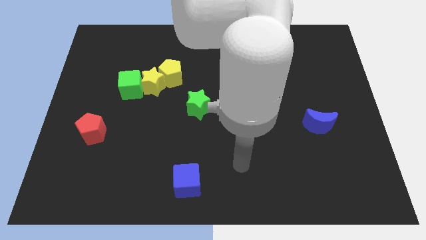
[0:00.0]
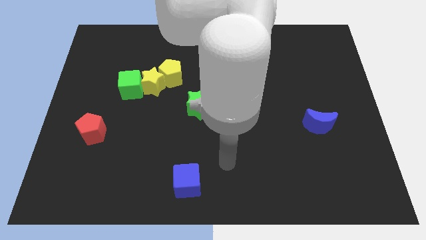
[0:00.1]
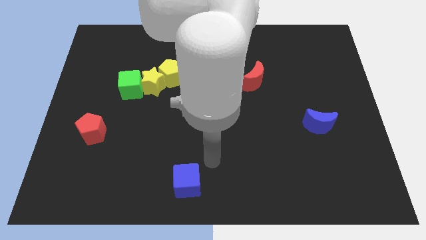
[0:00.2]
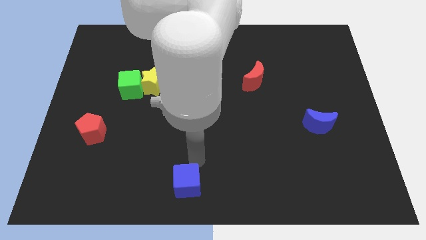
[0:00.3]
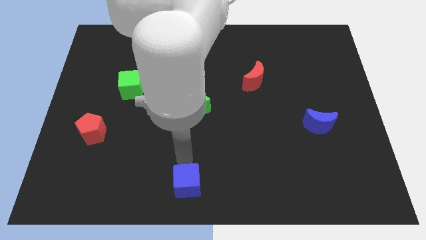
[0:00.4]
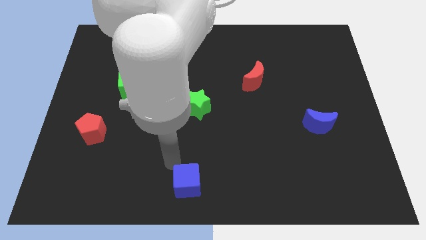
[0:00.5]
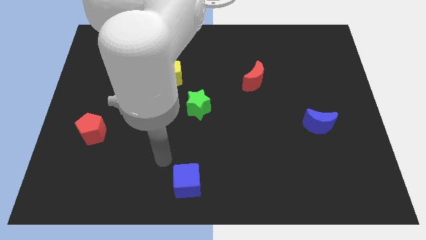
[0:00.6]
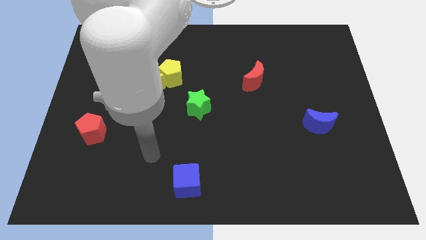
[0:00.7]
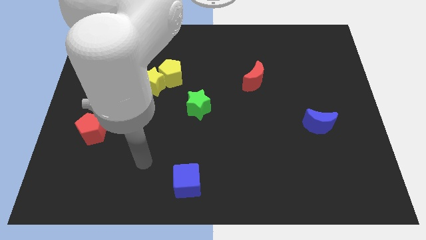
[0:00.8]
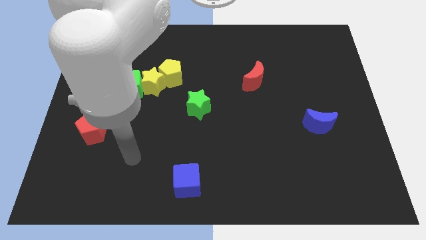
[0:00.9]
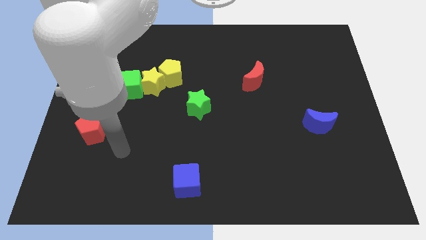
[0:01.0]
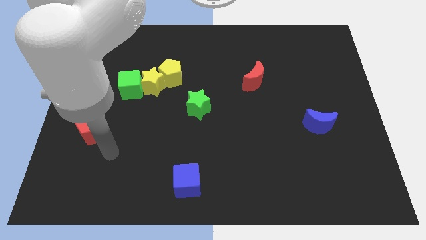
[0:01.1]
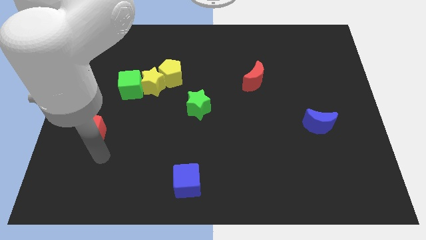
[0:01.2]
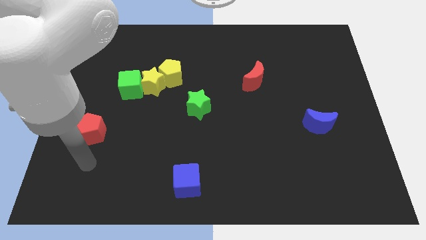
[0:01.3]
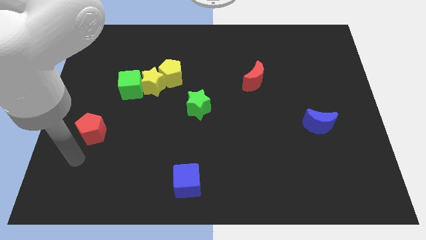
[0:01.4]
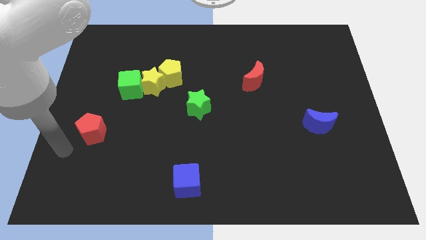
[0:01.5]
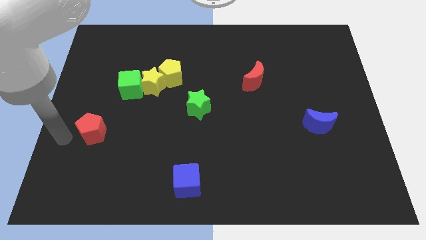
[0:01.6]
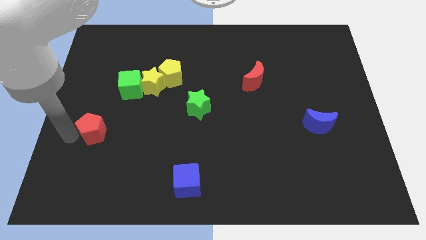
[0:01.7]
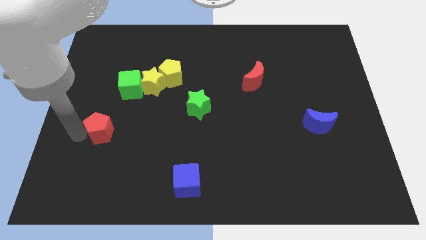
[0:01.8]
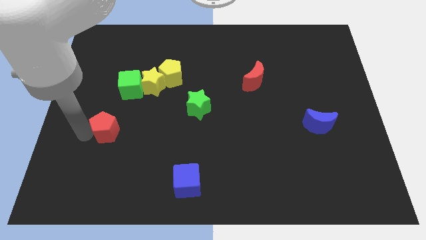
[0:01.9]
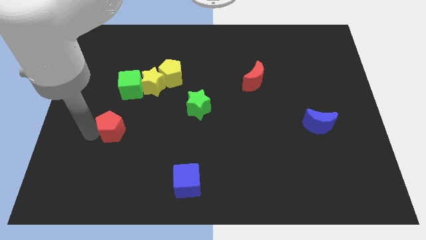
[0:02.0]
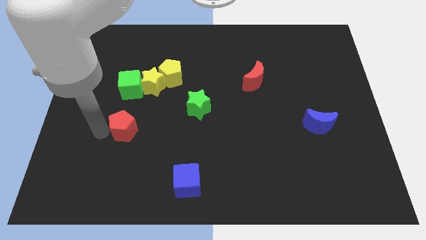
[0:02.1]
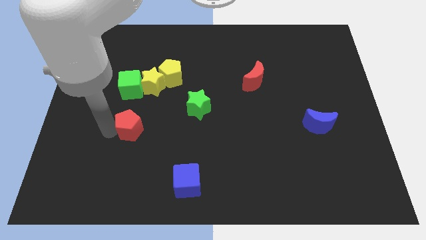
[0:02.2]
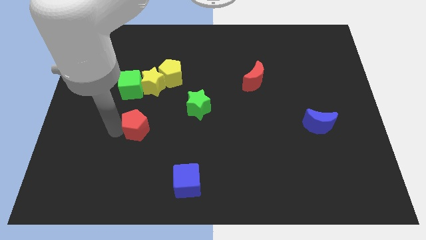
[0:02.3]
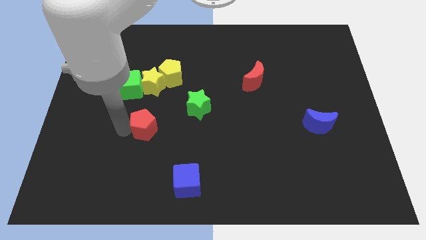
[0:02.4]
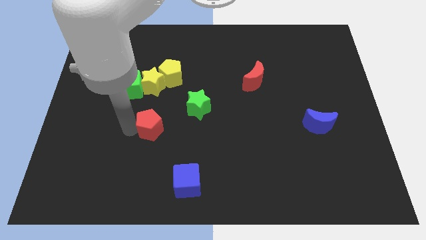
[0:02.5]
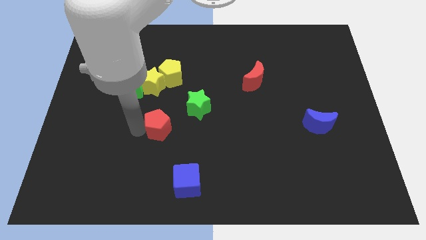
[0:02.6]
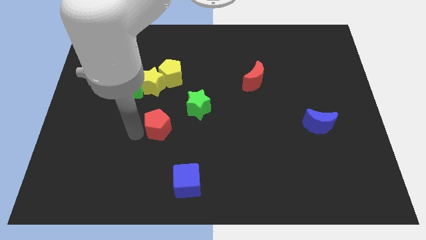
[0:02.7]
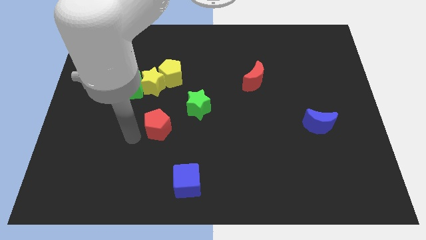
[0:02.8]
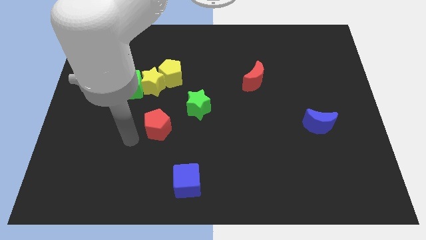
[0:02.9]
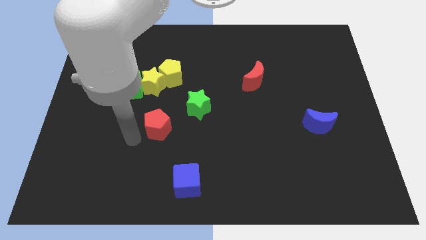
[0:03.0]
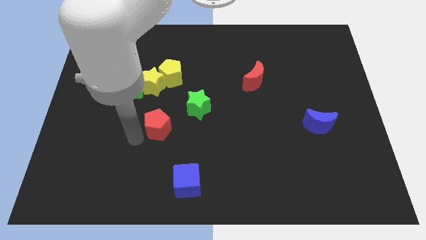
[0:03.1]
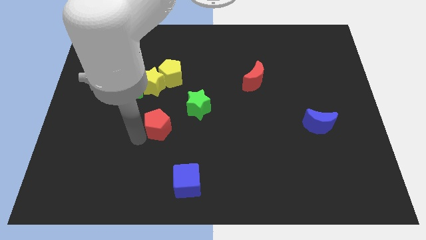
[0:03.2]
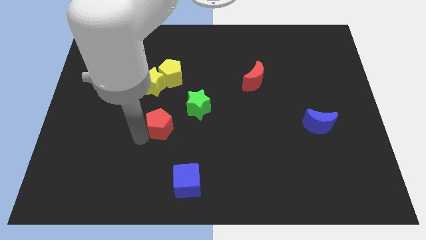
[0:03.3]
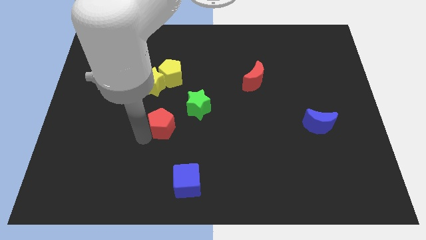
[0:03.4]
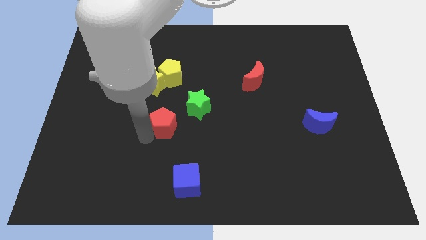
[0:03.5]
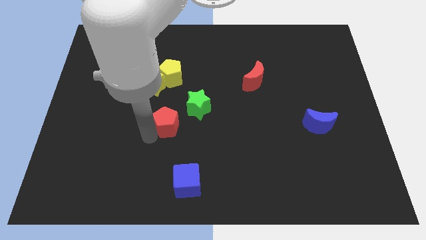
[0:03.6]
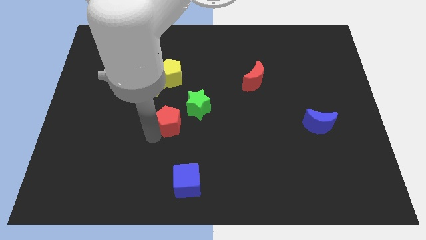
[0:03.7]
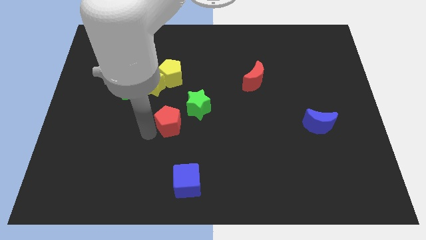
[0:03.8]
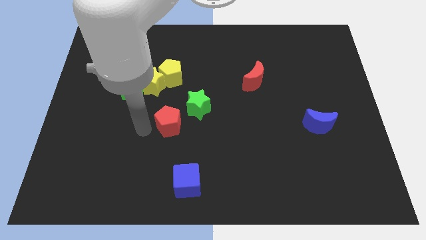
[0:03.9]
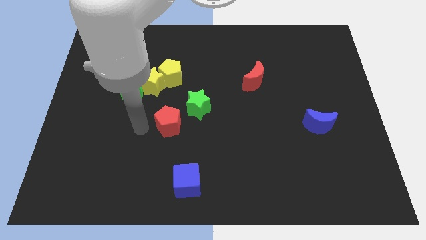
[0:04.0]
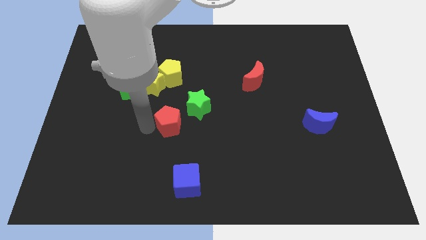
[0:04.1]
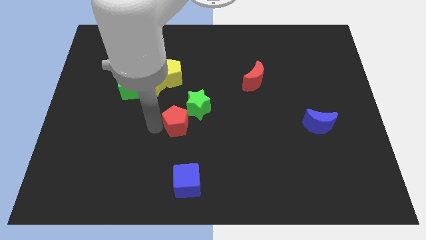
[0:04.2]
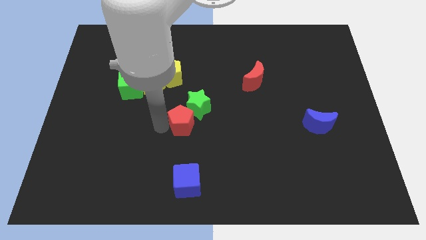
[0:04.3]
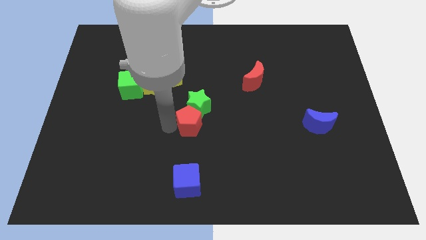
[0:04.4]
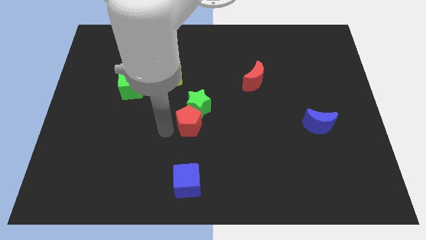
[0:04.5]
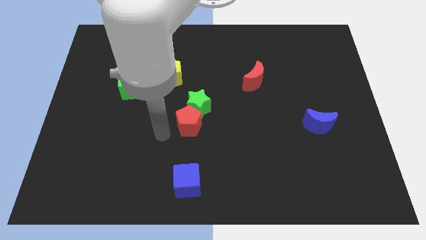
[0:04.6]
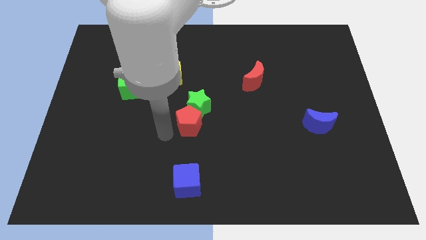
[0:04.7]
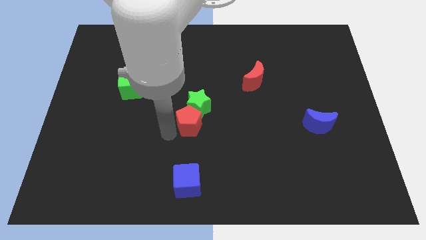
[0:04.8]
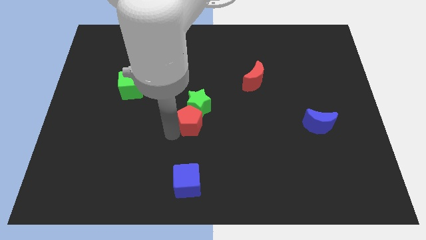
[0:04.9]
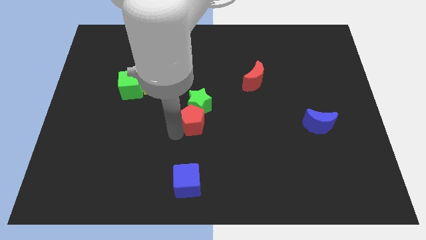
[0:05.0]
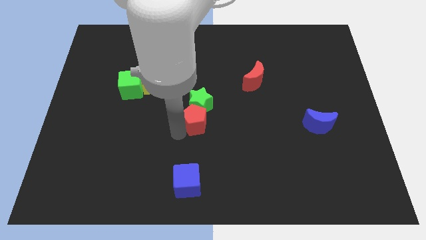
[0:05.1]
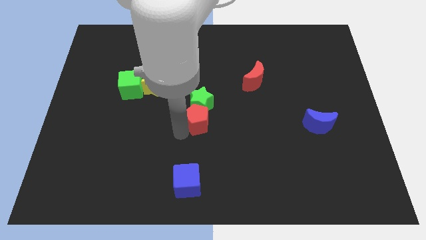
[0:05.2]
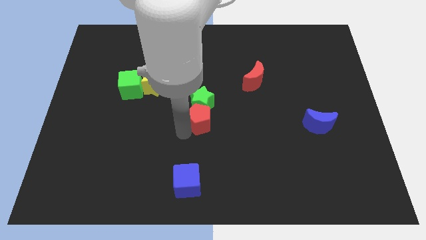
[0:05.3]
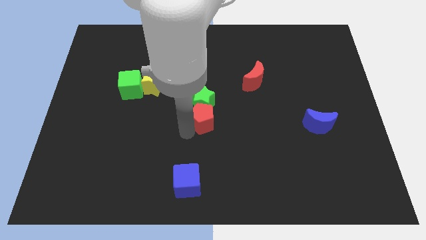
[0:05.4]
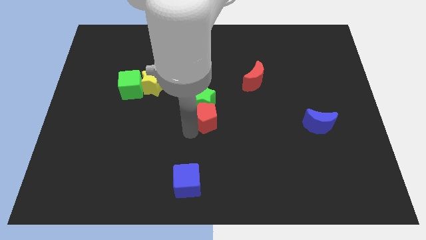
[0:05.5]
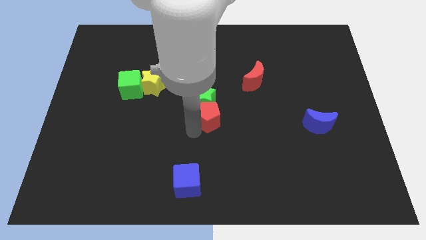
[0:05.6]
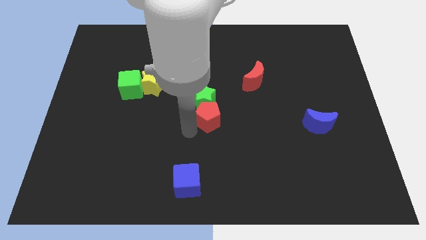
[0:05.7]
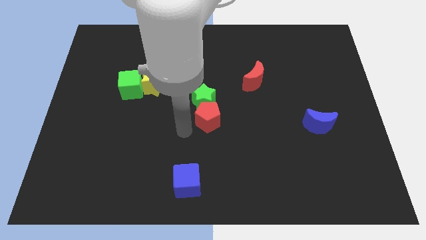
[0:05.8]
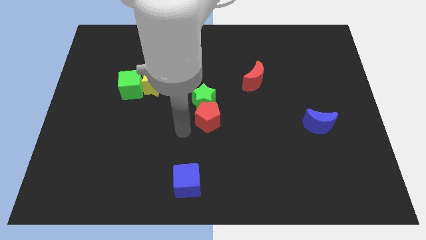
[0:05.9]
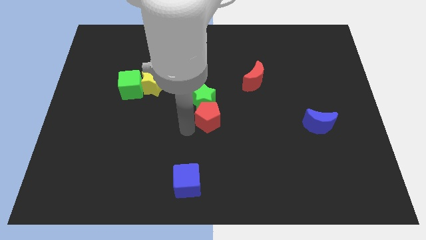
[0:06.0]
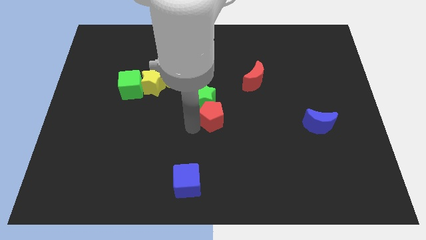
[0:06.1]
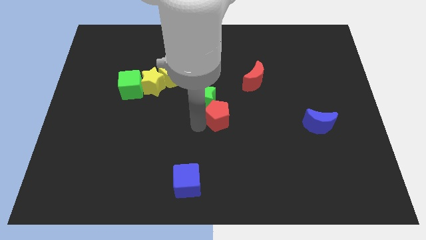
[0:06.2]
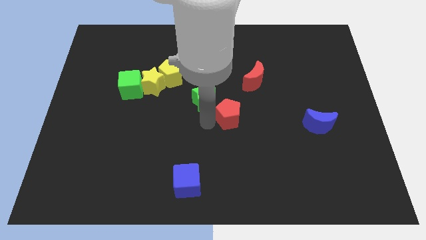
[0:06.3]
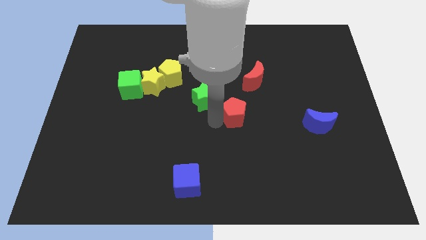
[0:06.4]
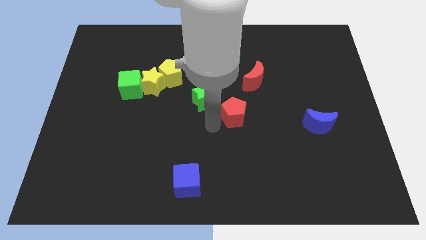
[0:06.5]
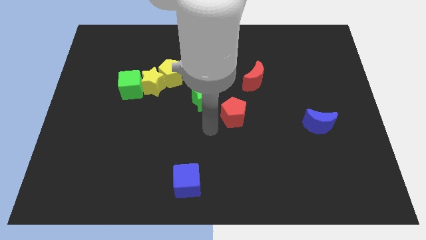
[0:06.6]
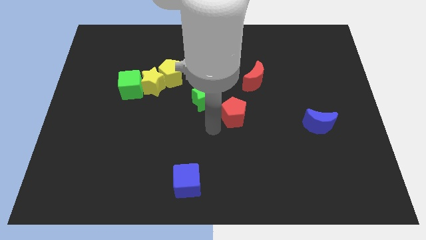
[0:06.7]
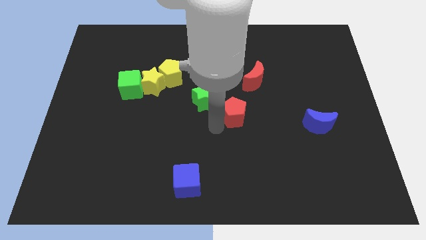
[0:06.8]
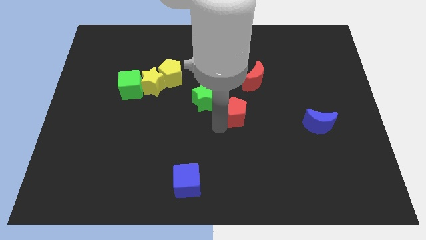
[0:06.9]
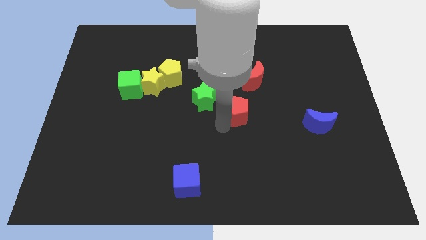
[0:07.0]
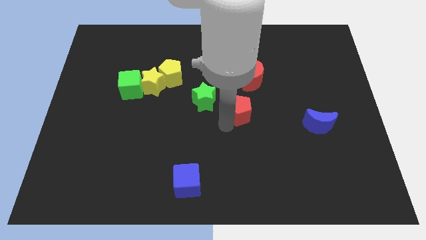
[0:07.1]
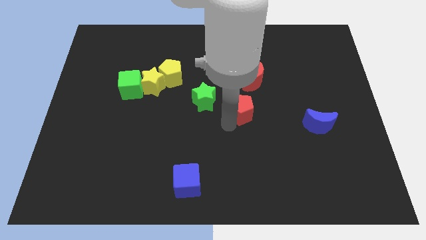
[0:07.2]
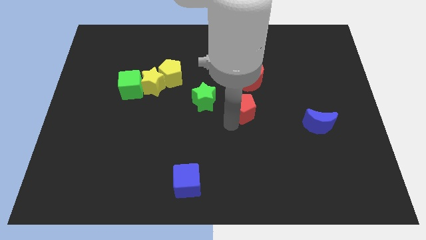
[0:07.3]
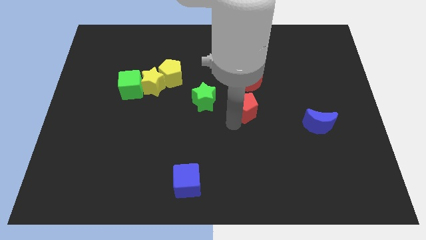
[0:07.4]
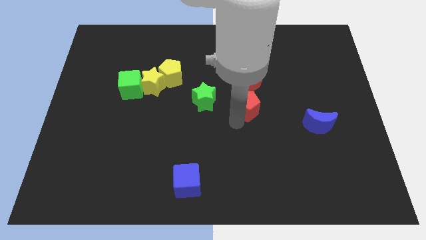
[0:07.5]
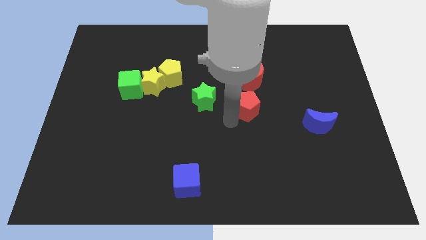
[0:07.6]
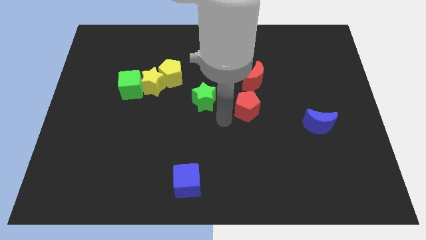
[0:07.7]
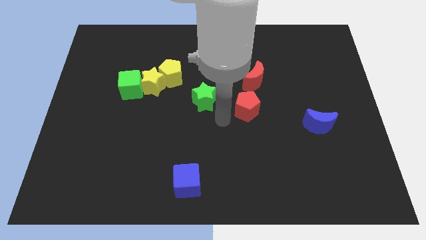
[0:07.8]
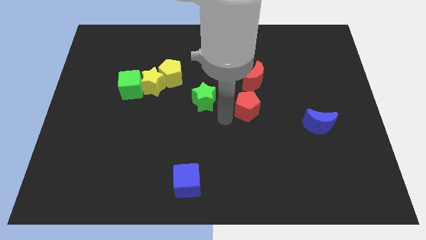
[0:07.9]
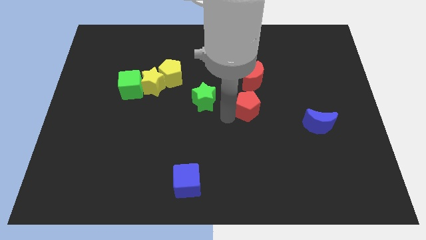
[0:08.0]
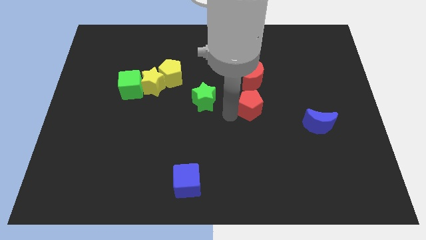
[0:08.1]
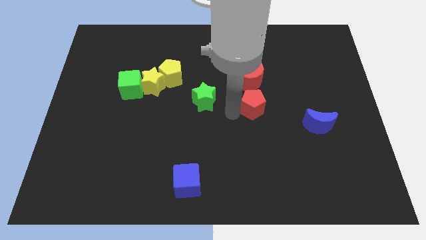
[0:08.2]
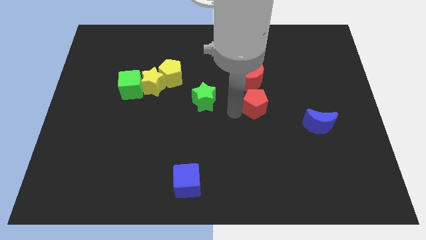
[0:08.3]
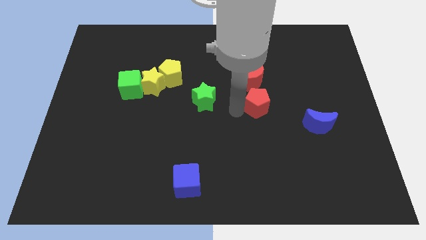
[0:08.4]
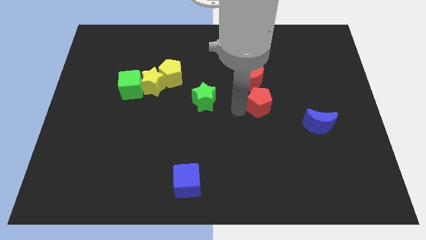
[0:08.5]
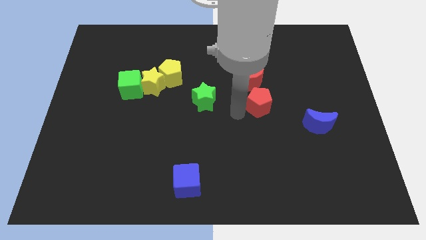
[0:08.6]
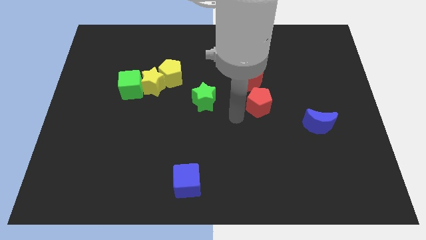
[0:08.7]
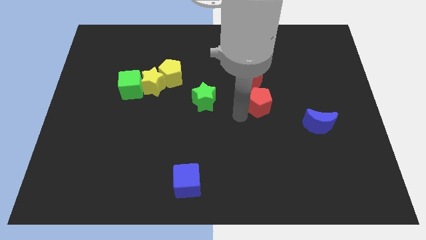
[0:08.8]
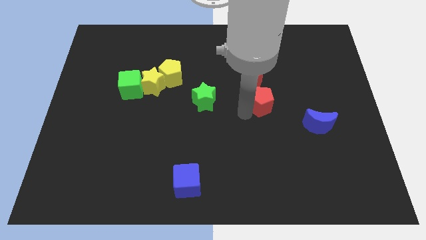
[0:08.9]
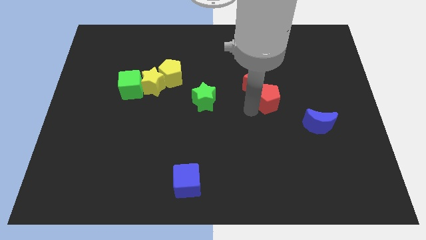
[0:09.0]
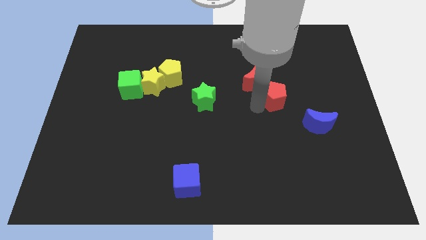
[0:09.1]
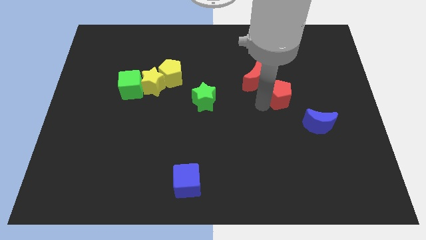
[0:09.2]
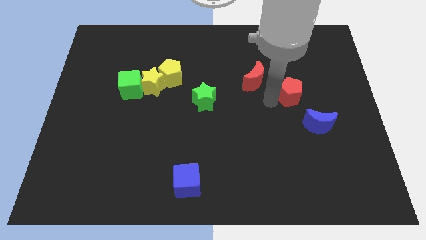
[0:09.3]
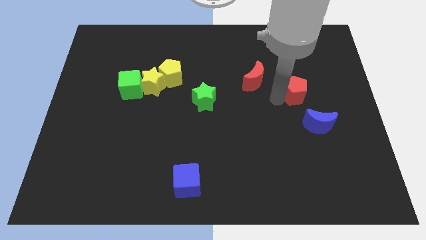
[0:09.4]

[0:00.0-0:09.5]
move the red pentagon to the top of the blue moon
